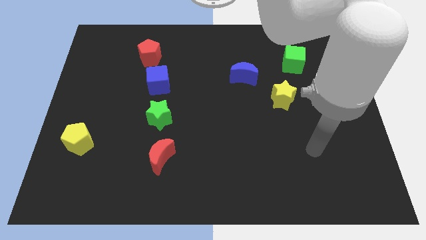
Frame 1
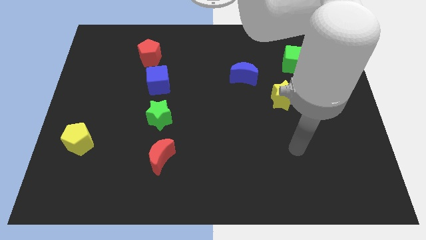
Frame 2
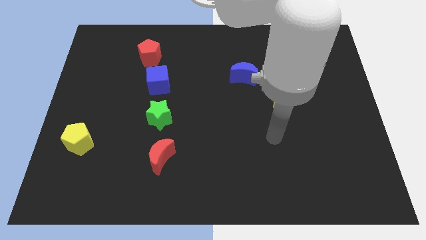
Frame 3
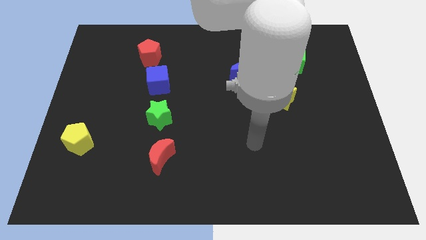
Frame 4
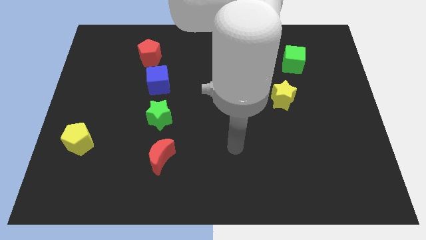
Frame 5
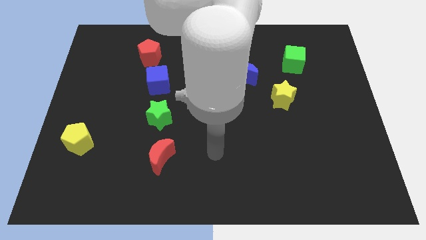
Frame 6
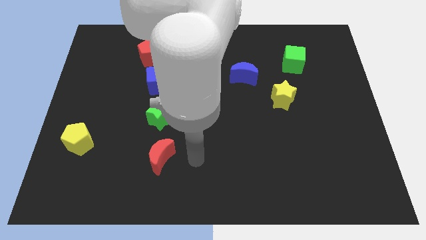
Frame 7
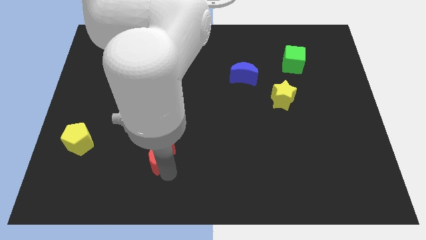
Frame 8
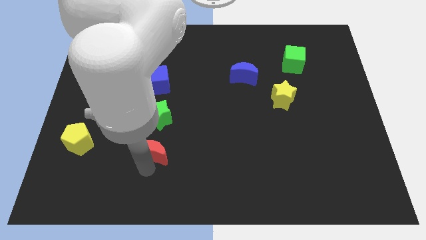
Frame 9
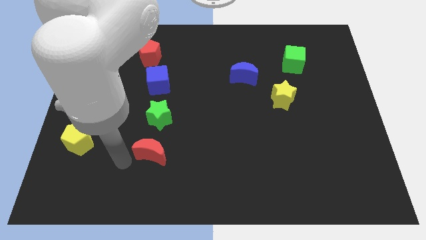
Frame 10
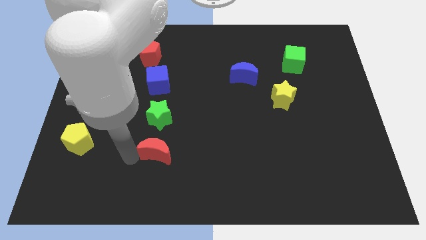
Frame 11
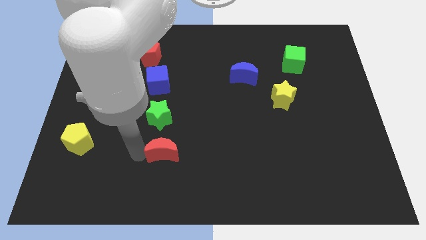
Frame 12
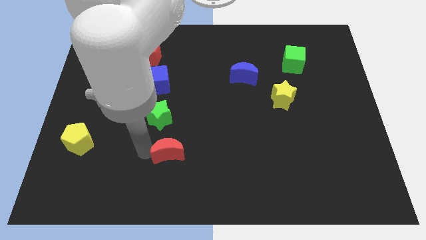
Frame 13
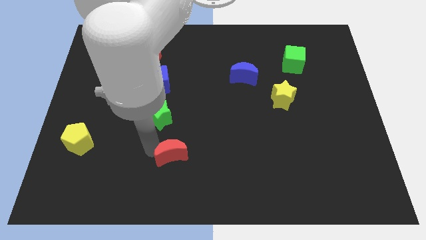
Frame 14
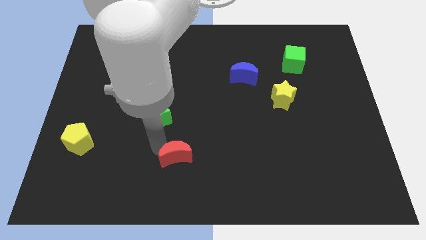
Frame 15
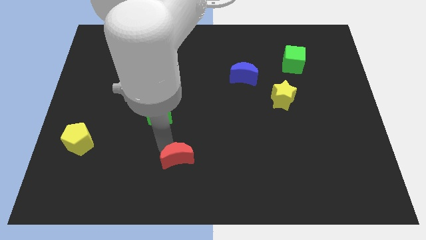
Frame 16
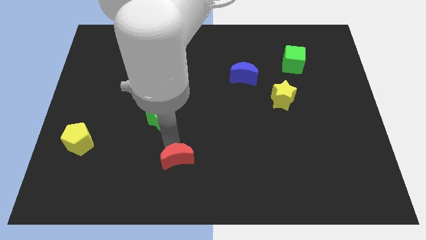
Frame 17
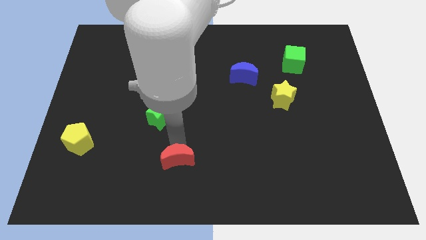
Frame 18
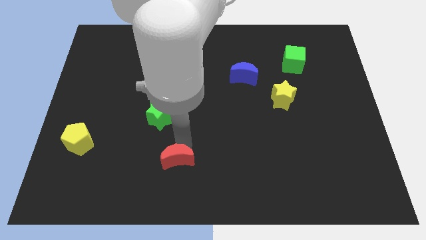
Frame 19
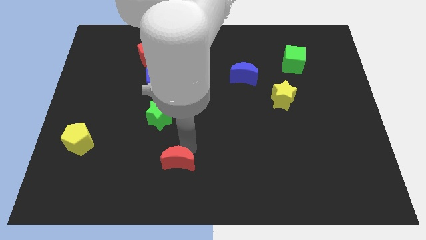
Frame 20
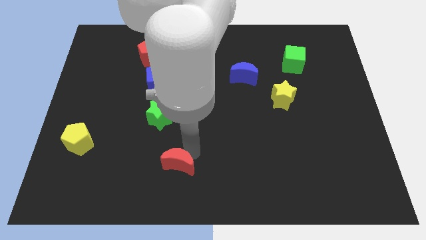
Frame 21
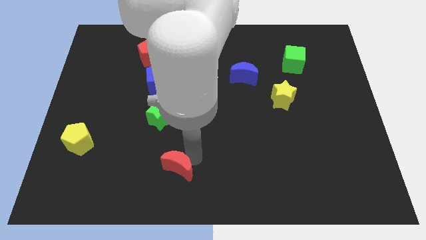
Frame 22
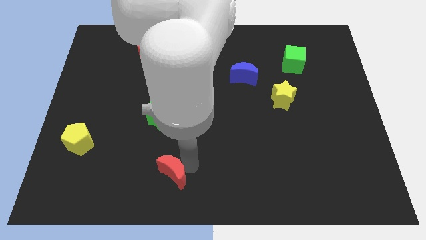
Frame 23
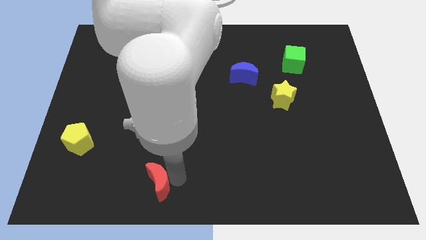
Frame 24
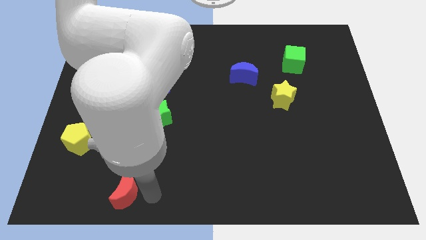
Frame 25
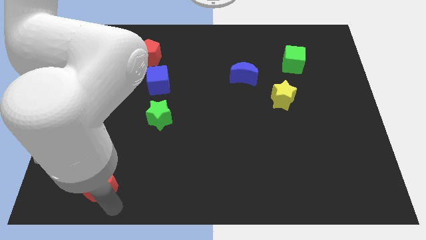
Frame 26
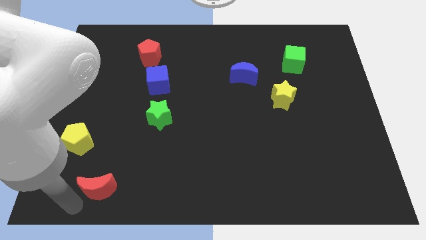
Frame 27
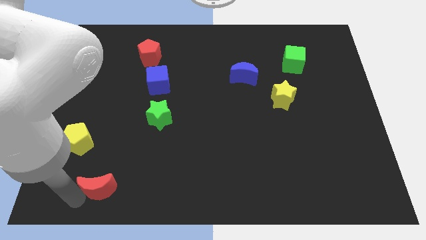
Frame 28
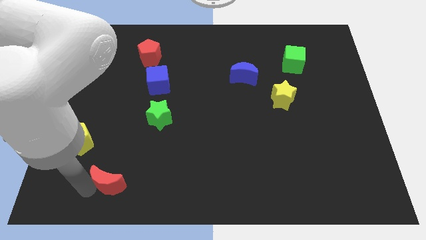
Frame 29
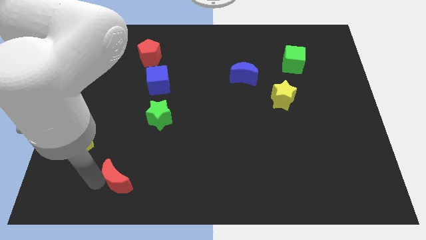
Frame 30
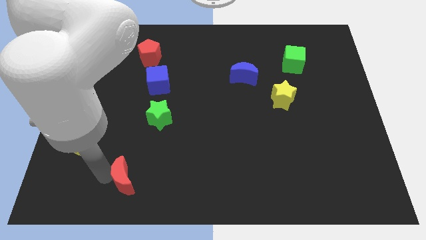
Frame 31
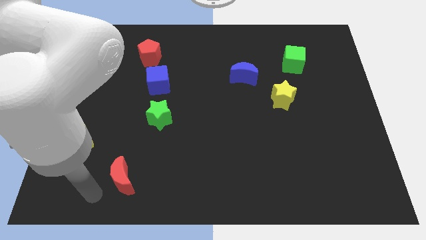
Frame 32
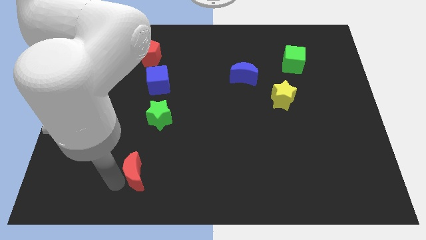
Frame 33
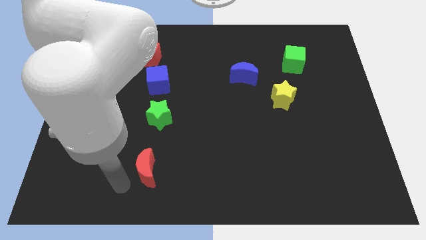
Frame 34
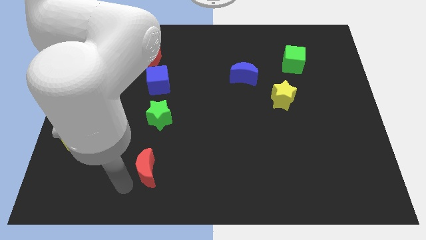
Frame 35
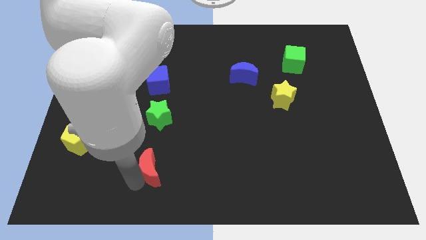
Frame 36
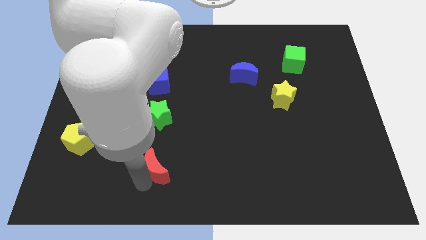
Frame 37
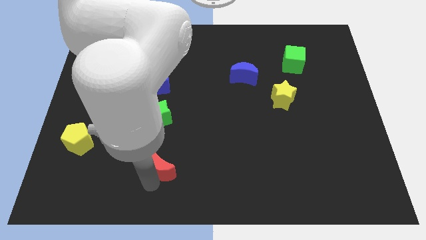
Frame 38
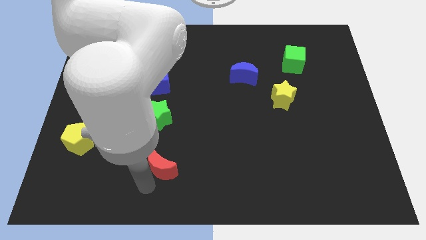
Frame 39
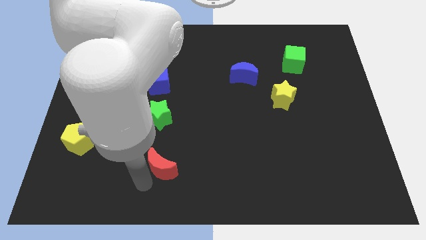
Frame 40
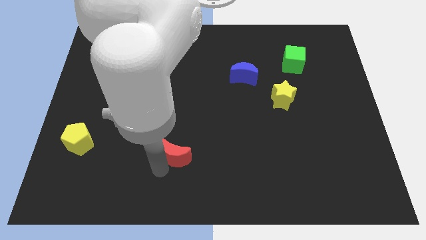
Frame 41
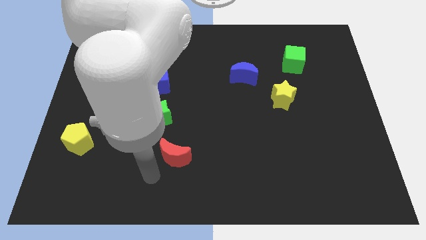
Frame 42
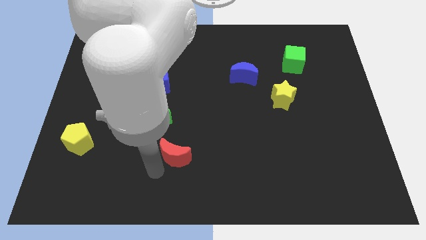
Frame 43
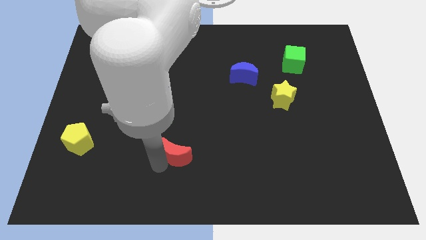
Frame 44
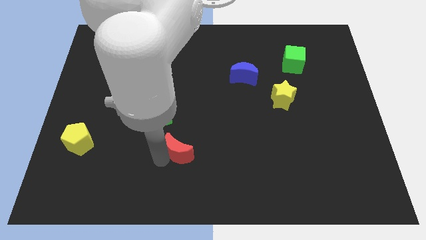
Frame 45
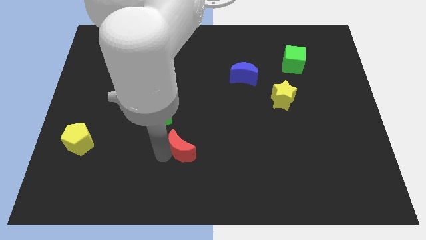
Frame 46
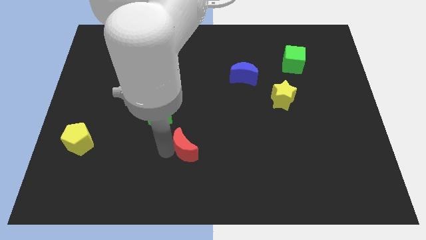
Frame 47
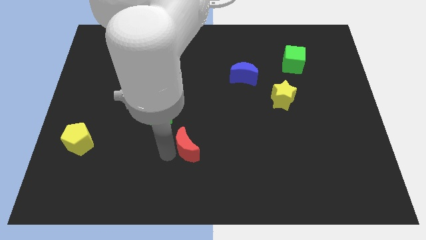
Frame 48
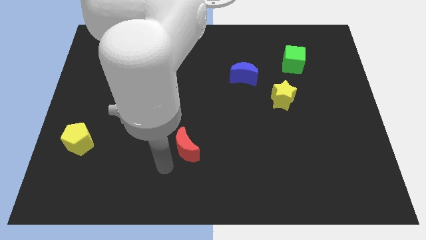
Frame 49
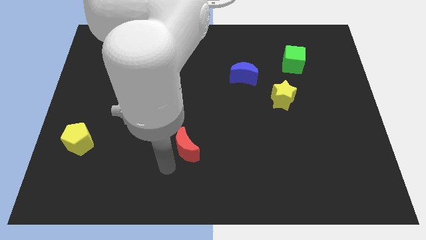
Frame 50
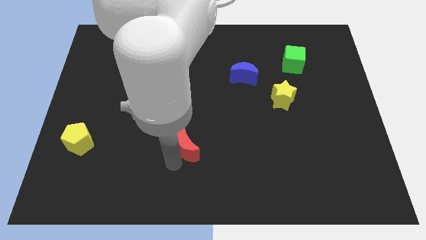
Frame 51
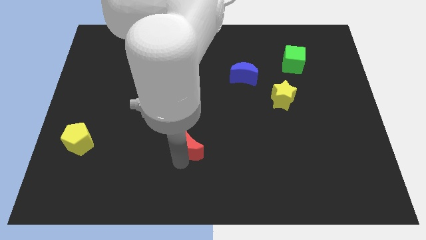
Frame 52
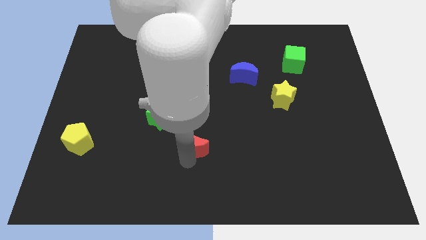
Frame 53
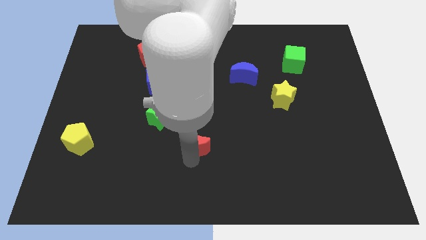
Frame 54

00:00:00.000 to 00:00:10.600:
slightly slide the red moon up and right

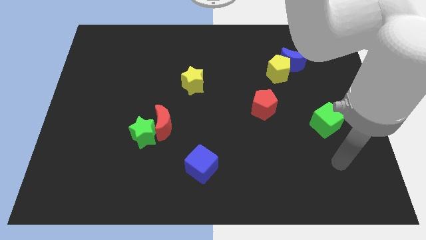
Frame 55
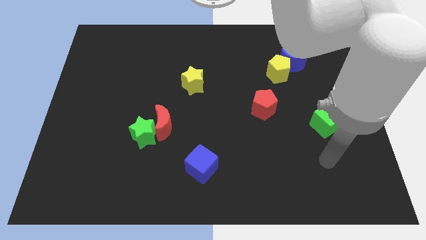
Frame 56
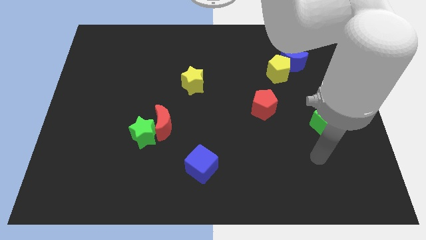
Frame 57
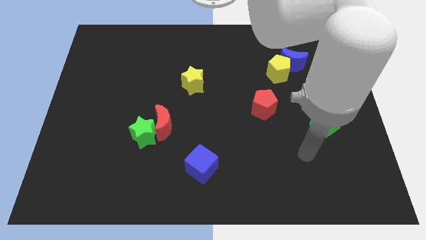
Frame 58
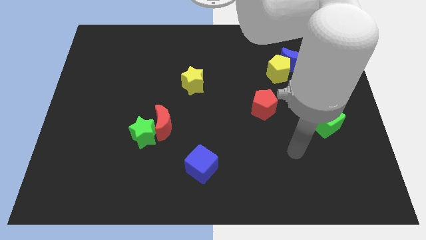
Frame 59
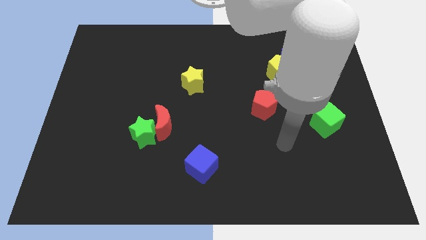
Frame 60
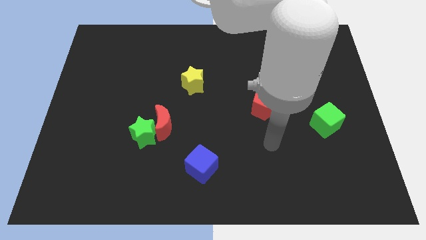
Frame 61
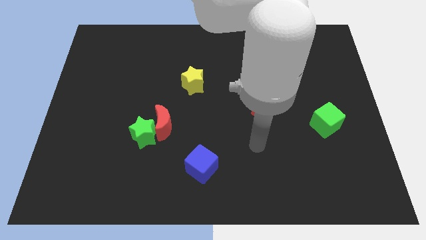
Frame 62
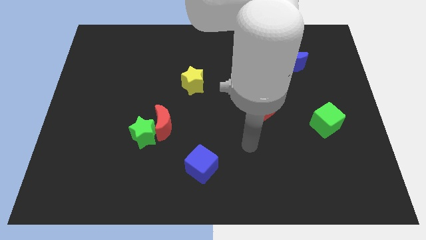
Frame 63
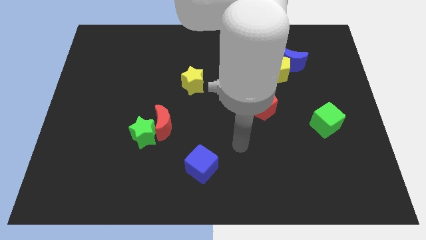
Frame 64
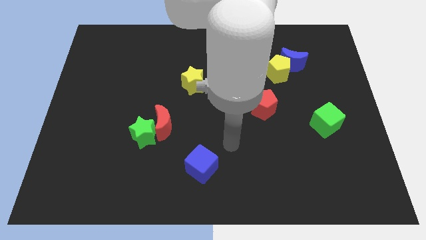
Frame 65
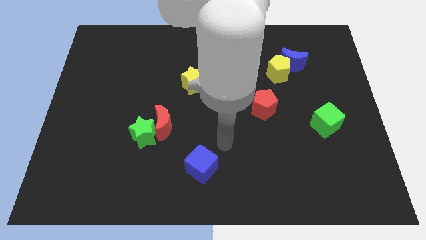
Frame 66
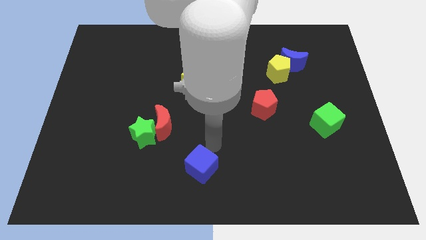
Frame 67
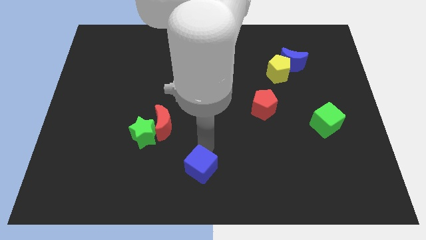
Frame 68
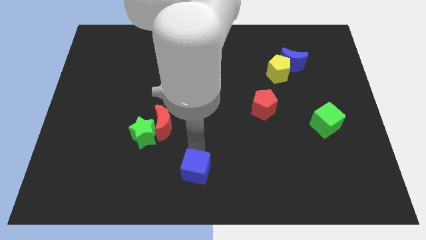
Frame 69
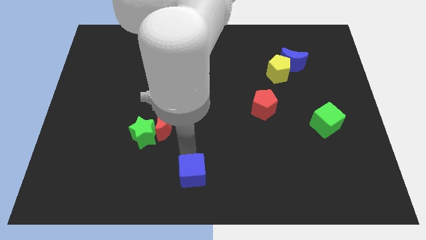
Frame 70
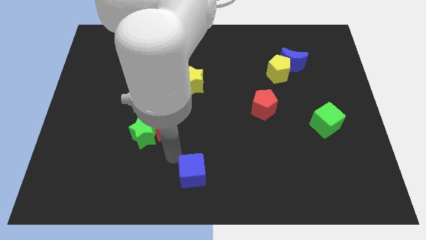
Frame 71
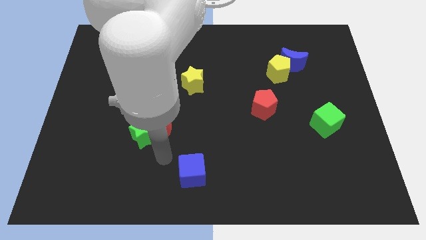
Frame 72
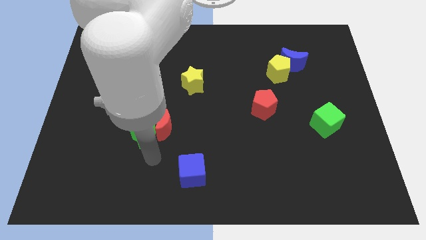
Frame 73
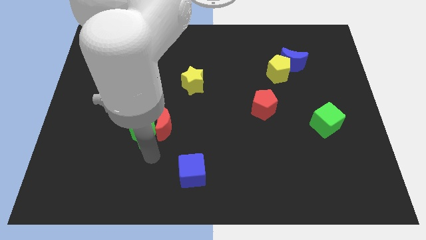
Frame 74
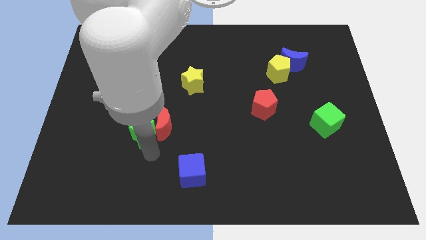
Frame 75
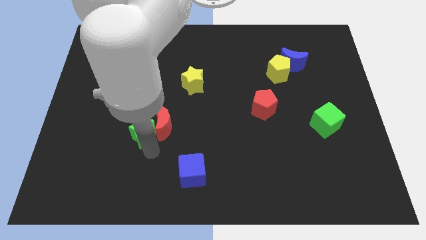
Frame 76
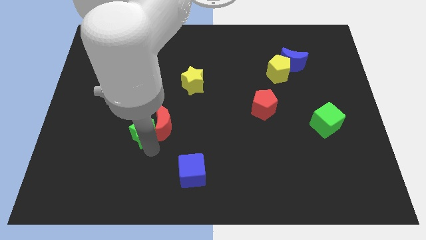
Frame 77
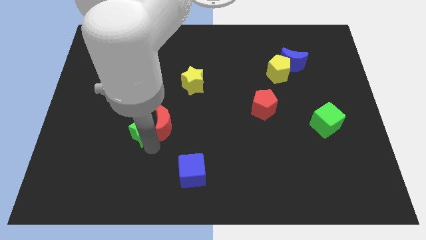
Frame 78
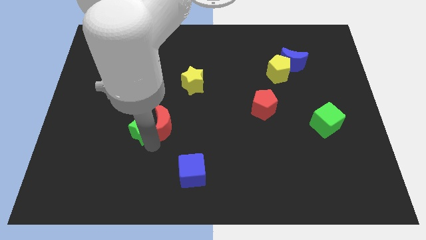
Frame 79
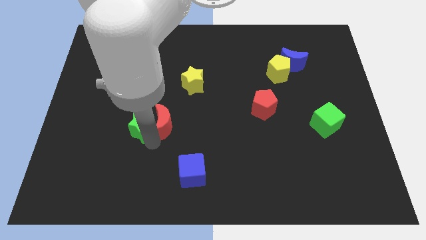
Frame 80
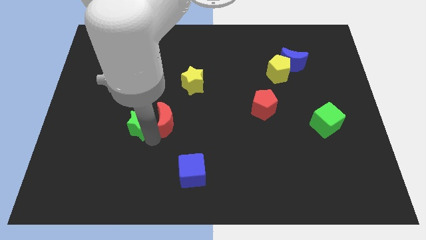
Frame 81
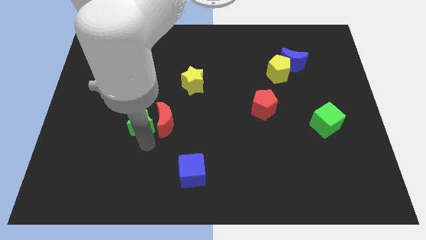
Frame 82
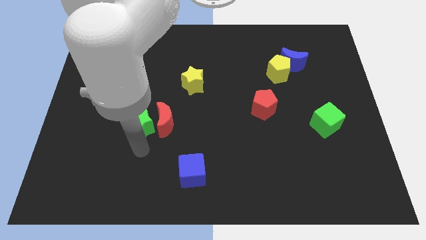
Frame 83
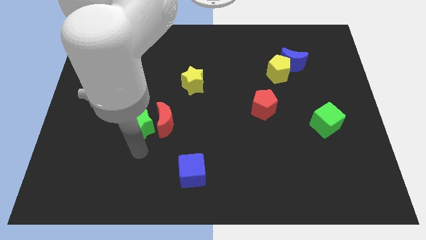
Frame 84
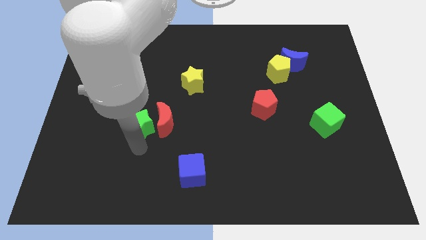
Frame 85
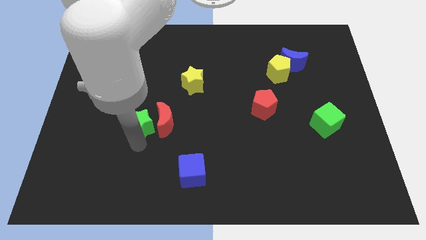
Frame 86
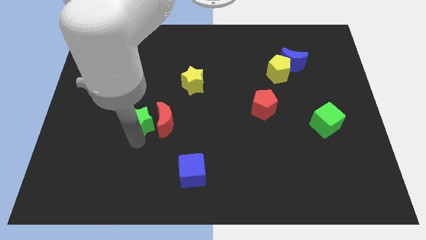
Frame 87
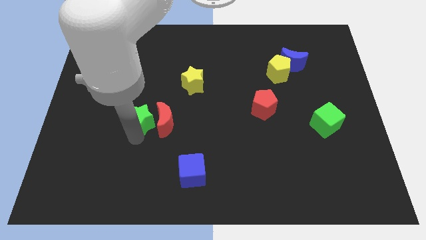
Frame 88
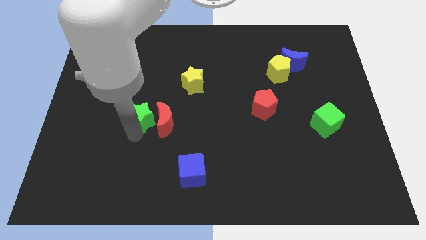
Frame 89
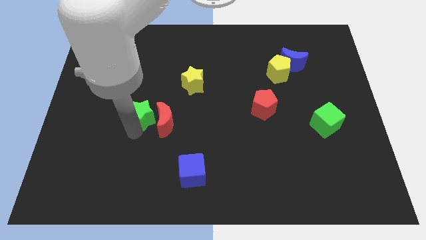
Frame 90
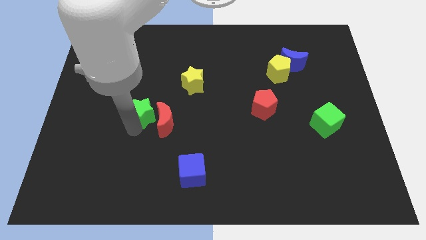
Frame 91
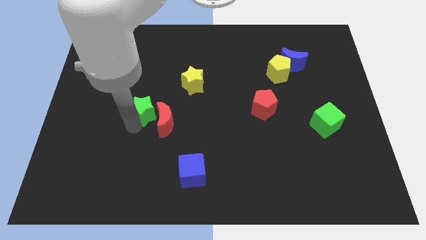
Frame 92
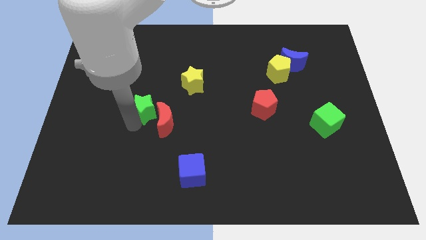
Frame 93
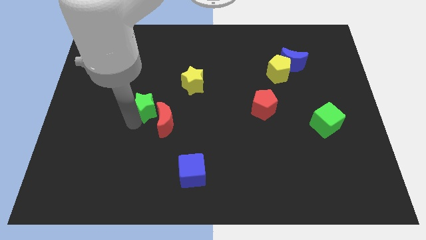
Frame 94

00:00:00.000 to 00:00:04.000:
push the green star upwards a little
